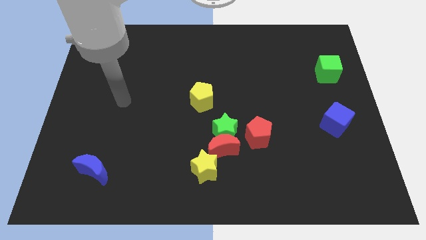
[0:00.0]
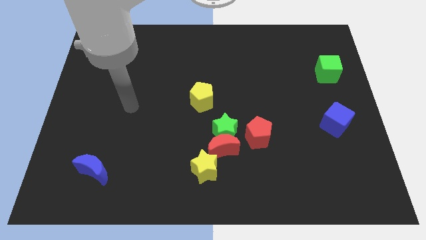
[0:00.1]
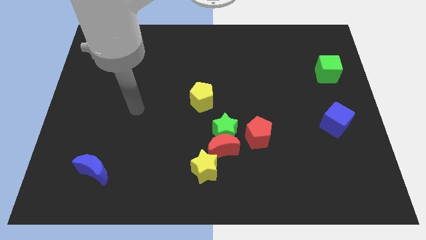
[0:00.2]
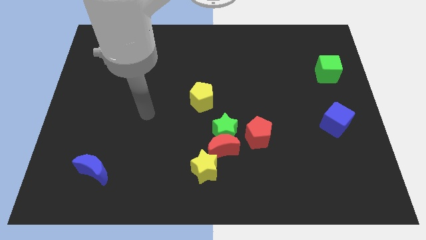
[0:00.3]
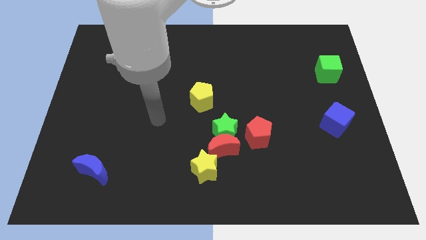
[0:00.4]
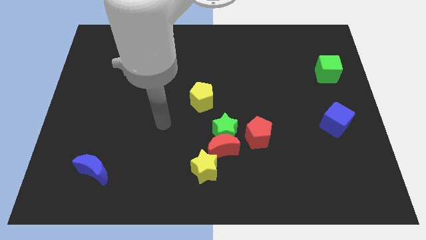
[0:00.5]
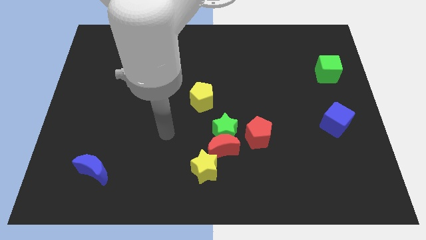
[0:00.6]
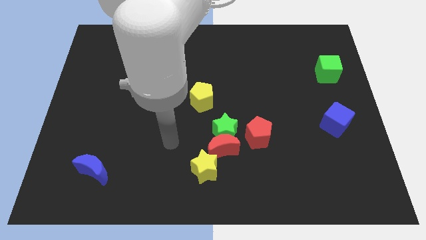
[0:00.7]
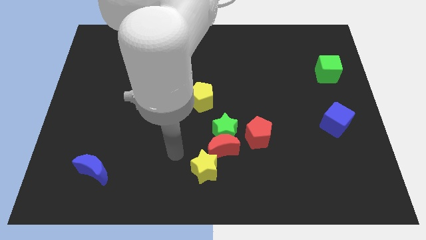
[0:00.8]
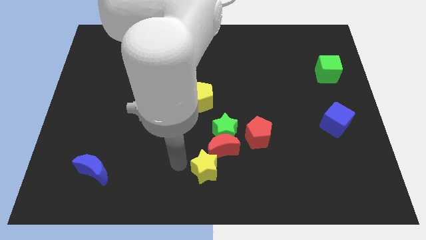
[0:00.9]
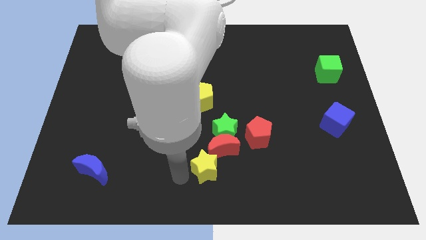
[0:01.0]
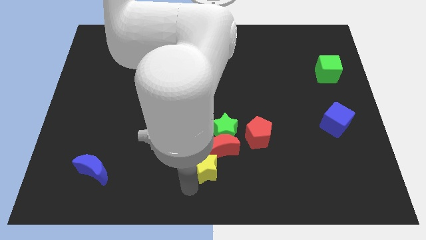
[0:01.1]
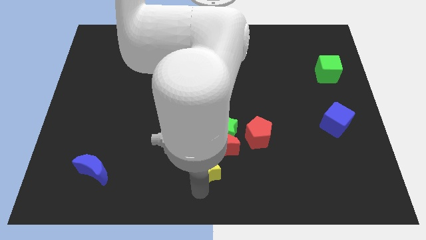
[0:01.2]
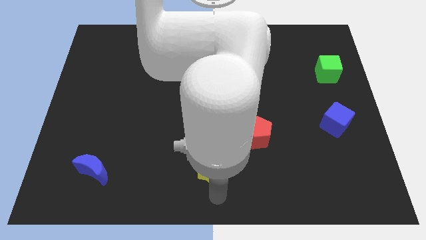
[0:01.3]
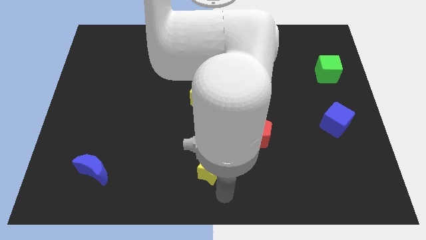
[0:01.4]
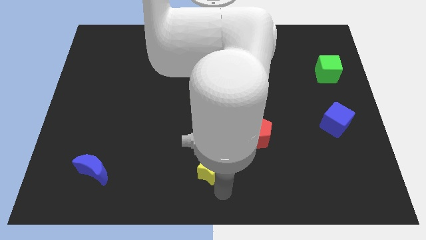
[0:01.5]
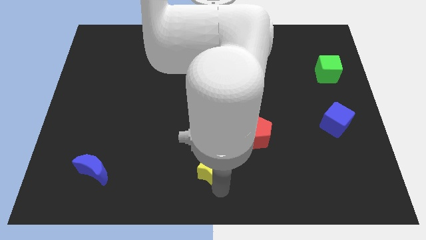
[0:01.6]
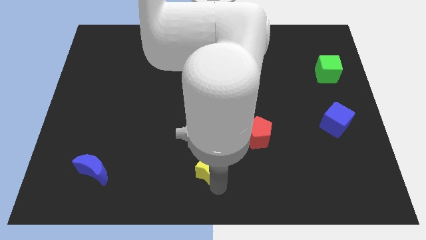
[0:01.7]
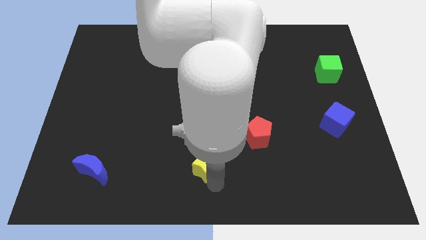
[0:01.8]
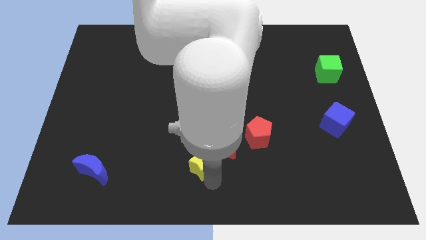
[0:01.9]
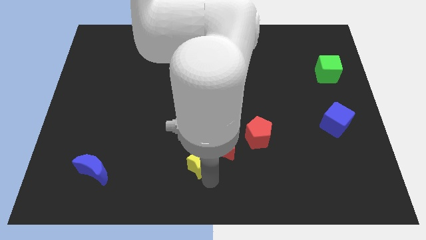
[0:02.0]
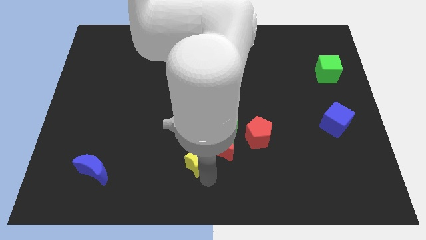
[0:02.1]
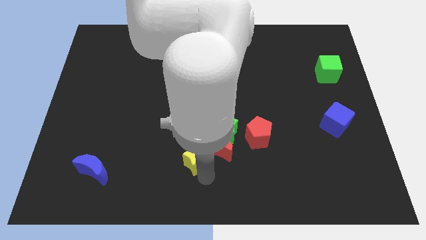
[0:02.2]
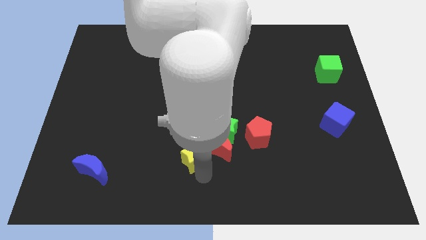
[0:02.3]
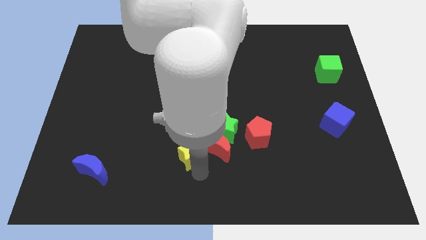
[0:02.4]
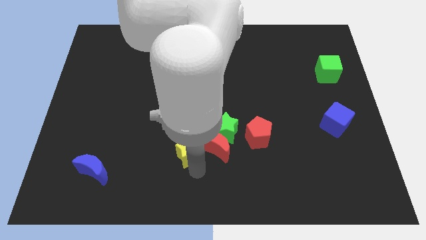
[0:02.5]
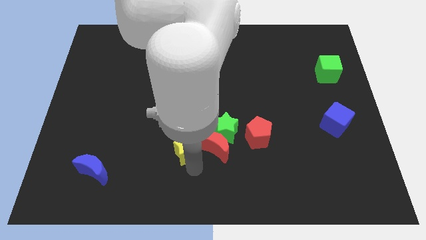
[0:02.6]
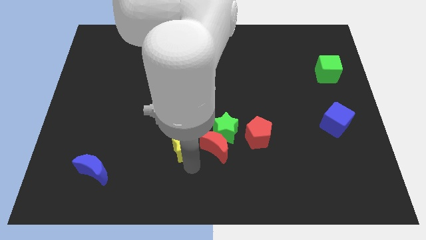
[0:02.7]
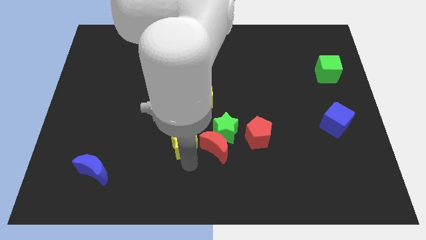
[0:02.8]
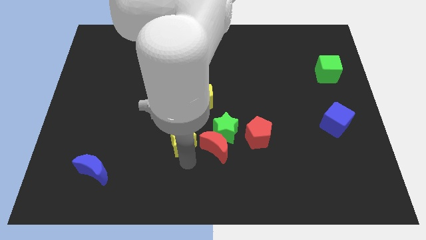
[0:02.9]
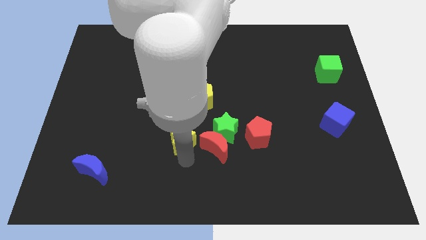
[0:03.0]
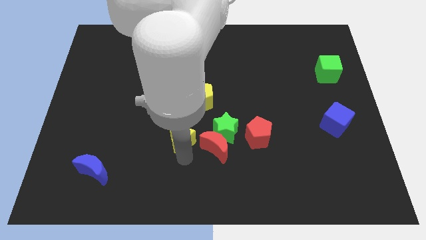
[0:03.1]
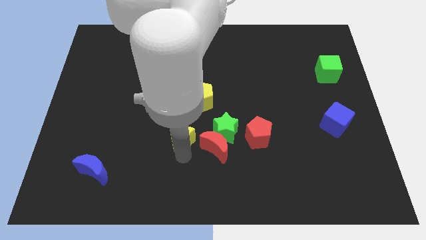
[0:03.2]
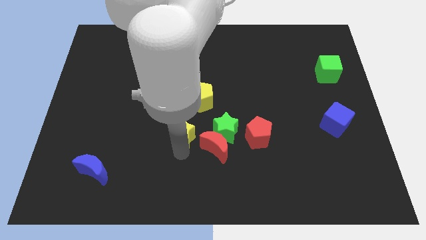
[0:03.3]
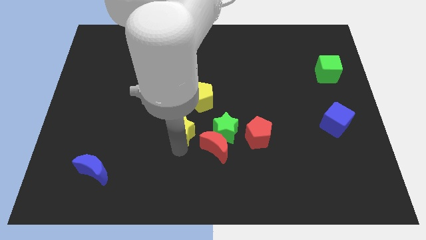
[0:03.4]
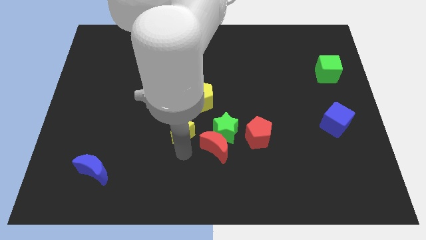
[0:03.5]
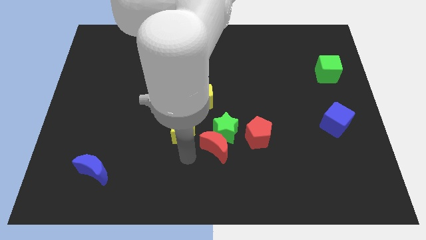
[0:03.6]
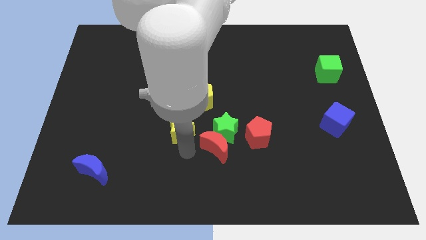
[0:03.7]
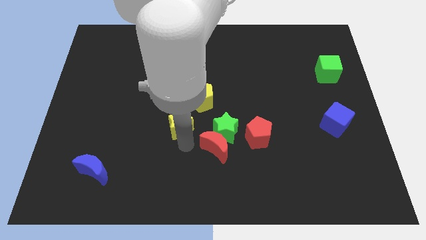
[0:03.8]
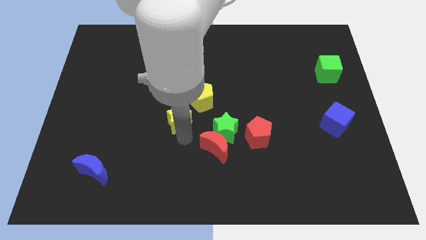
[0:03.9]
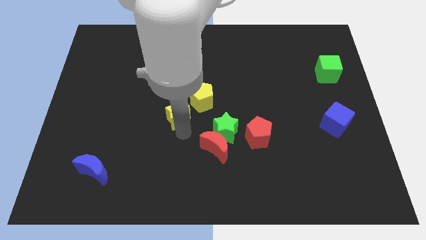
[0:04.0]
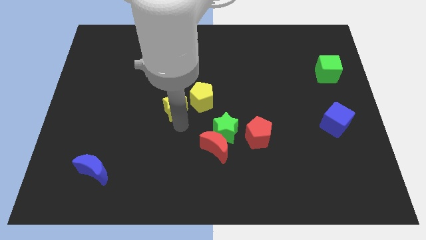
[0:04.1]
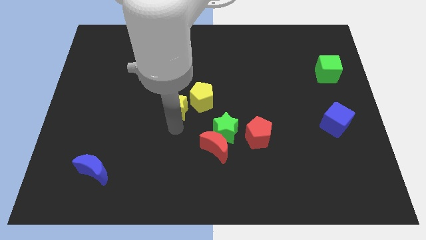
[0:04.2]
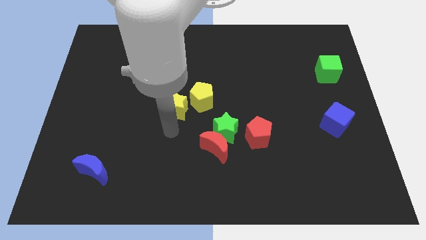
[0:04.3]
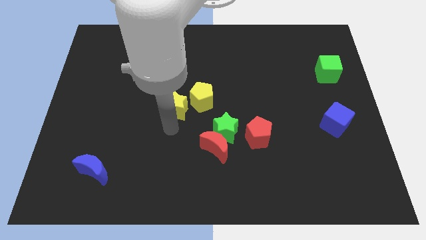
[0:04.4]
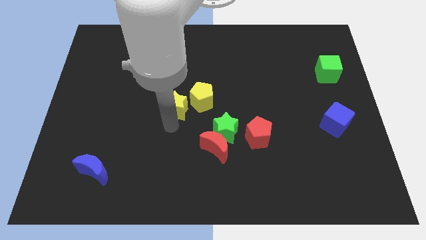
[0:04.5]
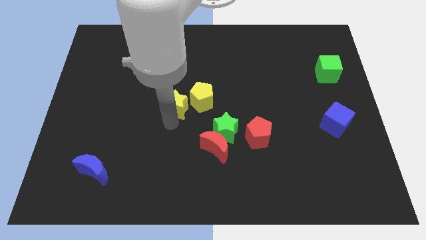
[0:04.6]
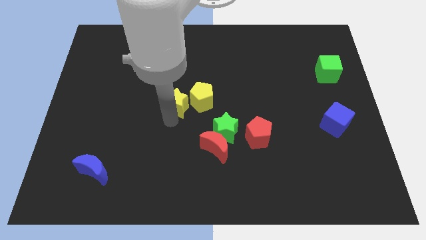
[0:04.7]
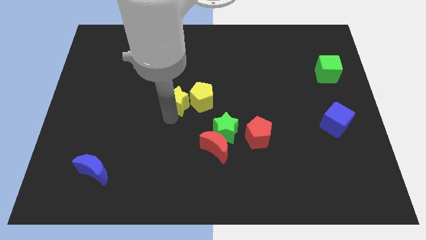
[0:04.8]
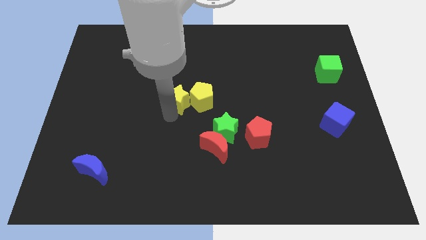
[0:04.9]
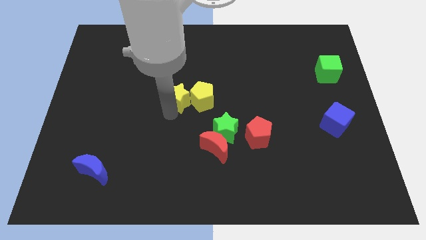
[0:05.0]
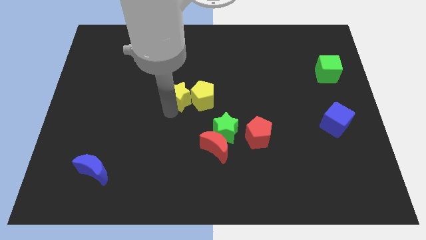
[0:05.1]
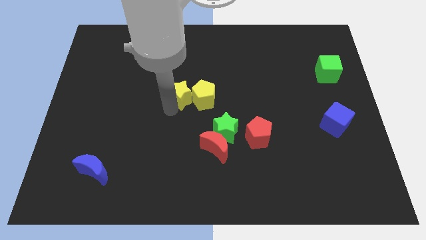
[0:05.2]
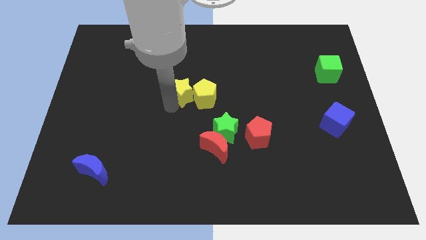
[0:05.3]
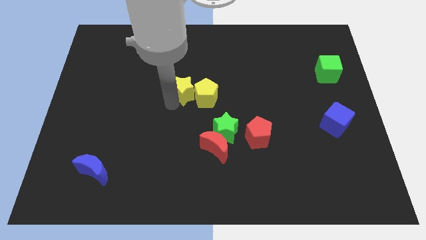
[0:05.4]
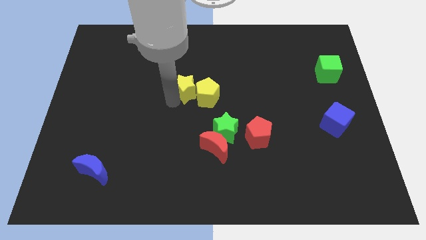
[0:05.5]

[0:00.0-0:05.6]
push the yellow star up

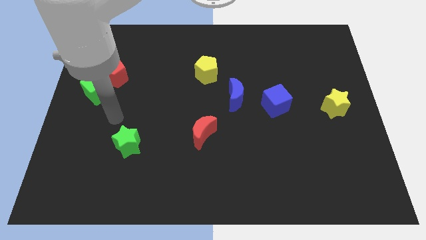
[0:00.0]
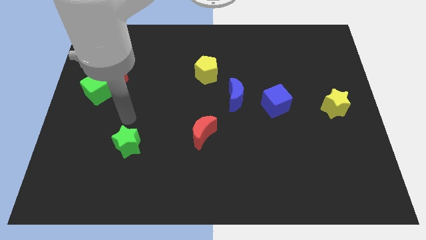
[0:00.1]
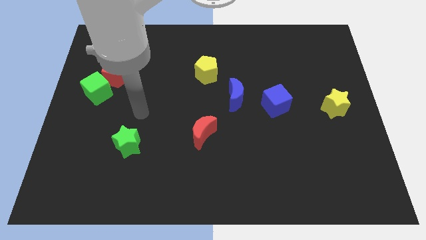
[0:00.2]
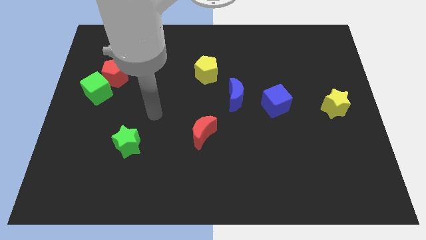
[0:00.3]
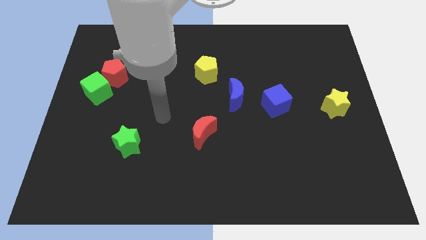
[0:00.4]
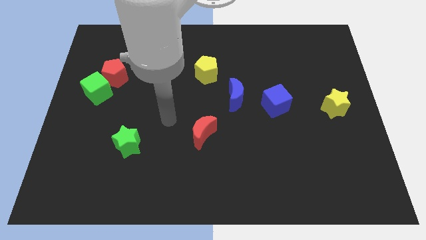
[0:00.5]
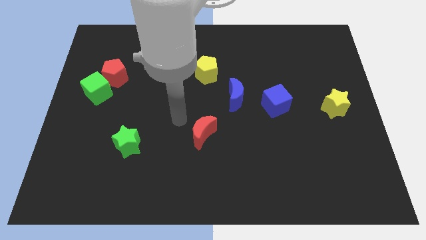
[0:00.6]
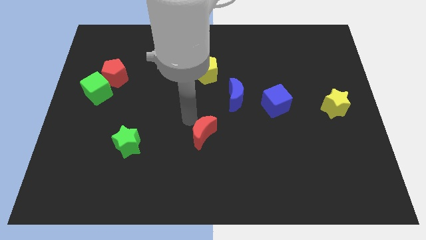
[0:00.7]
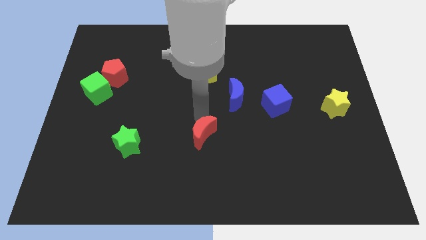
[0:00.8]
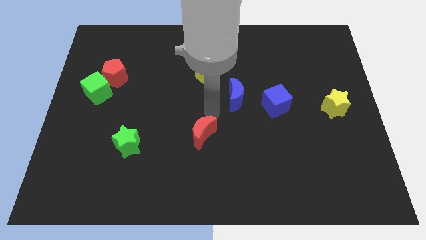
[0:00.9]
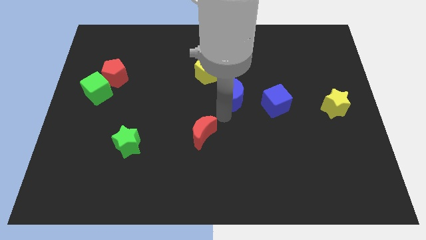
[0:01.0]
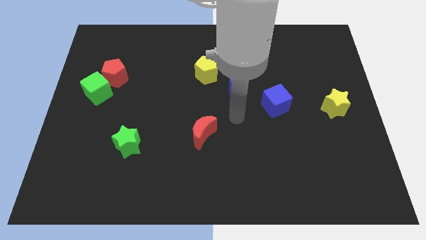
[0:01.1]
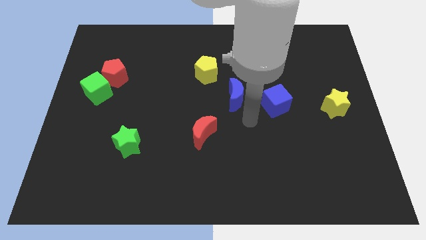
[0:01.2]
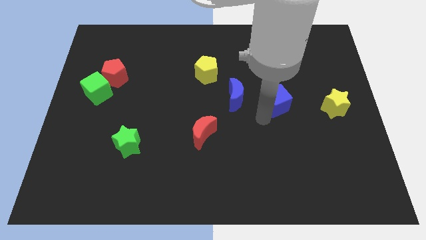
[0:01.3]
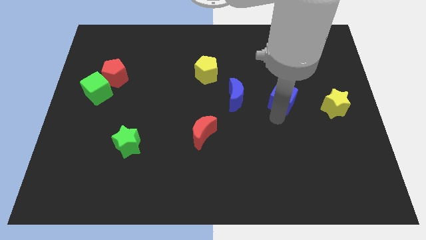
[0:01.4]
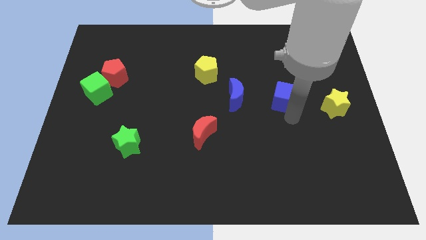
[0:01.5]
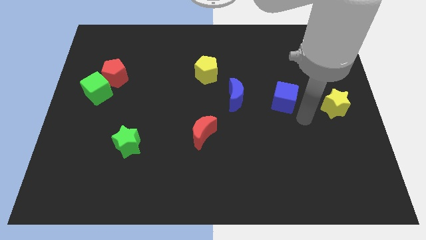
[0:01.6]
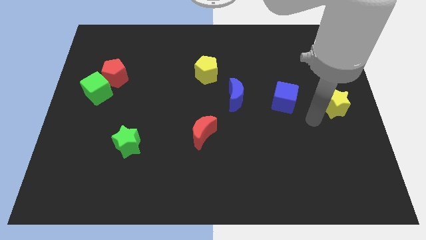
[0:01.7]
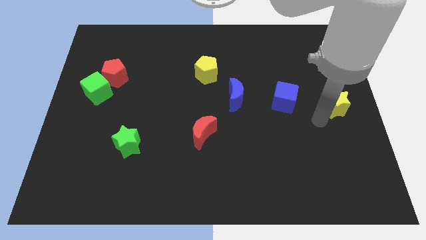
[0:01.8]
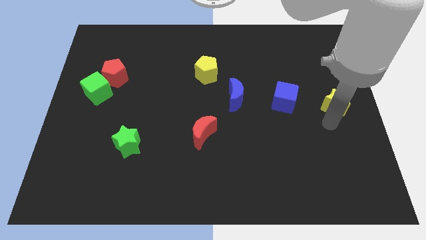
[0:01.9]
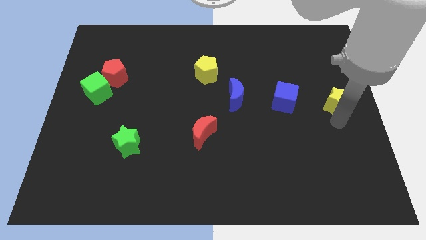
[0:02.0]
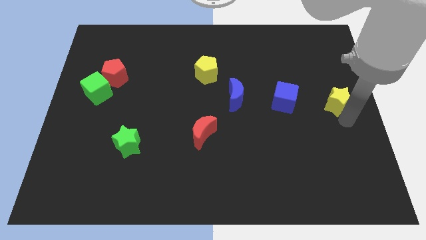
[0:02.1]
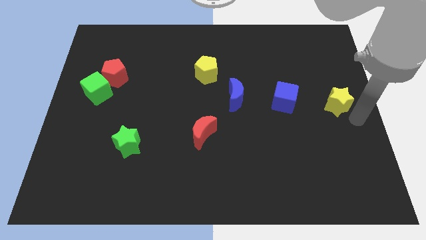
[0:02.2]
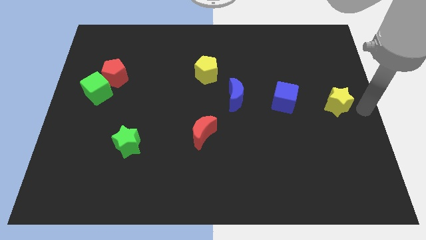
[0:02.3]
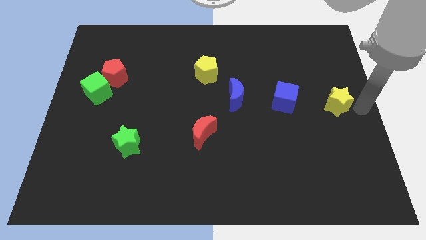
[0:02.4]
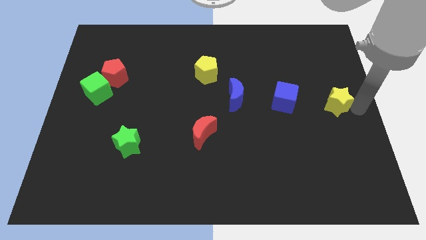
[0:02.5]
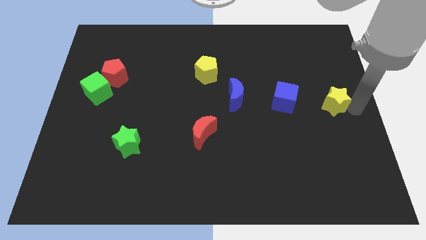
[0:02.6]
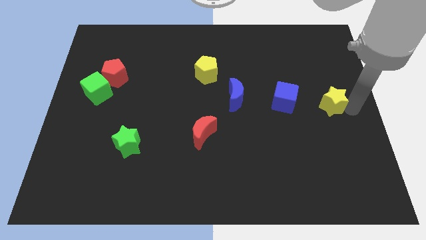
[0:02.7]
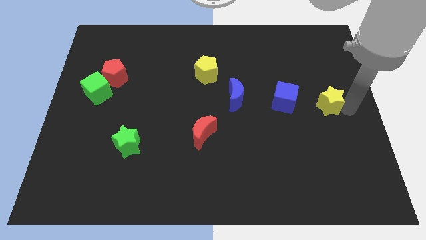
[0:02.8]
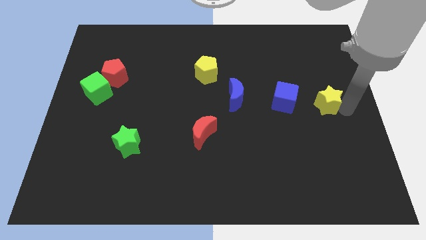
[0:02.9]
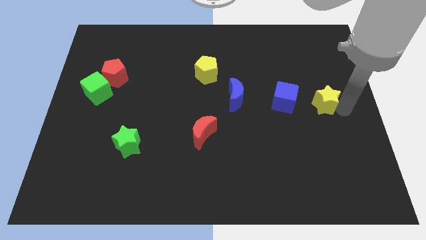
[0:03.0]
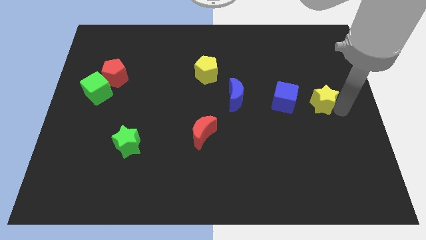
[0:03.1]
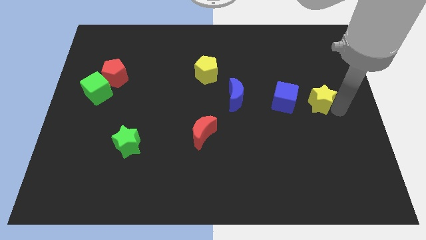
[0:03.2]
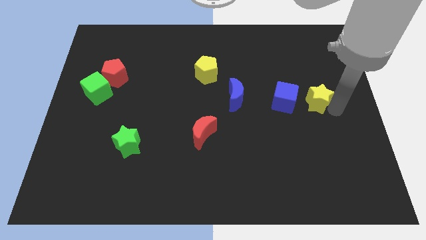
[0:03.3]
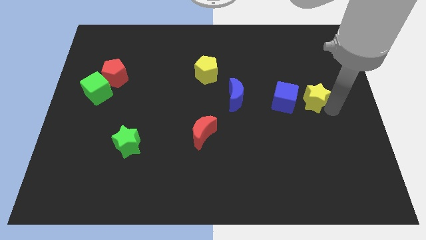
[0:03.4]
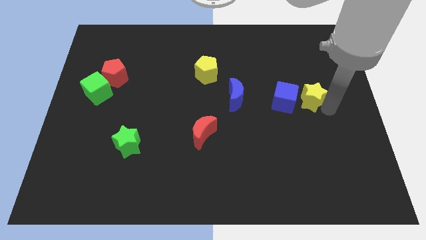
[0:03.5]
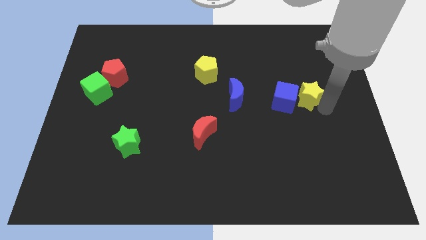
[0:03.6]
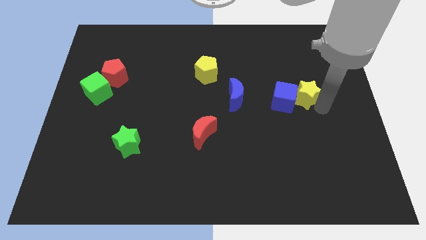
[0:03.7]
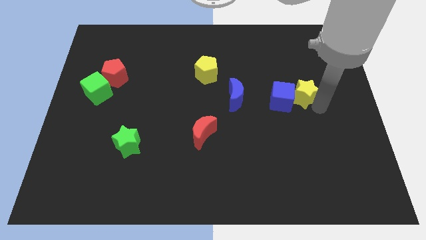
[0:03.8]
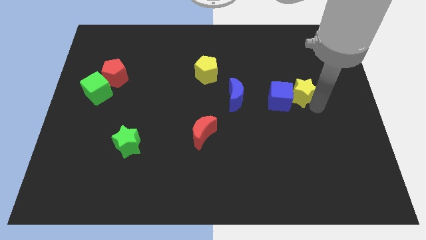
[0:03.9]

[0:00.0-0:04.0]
slide the yellow star somewhat upwards and then left
